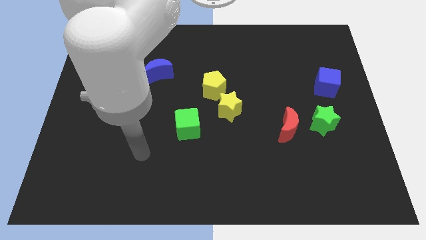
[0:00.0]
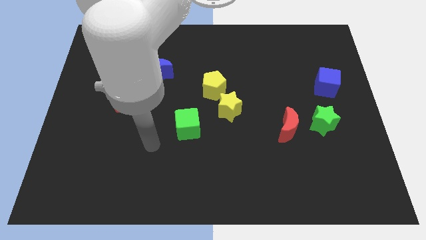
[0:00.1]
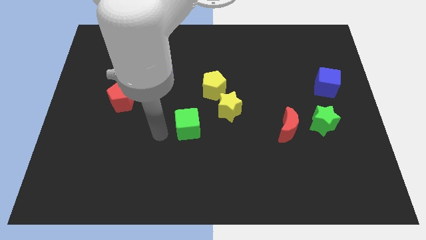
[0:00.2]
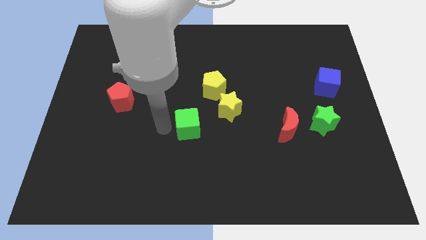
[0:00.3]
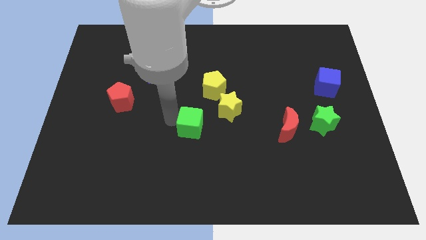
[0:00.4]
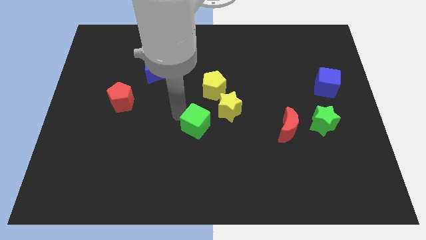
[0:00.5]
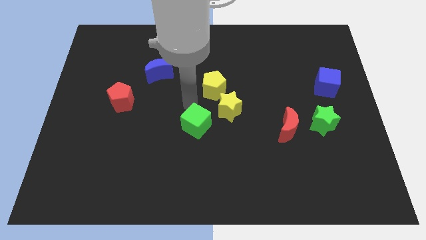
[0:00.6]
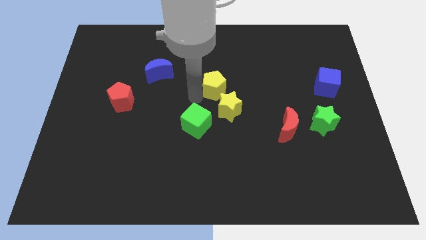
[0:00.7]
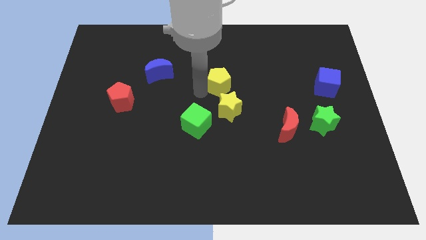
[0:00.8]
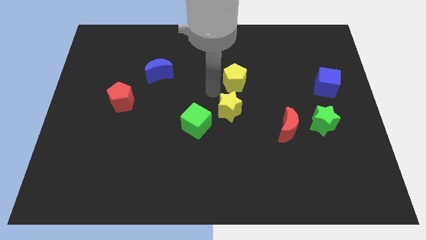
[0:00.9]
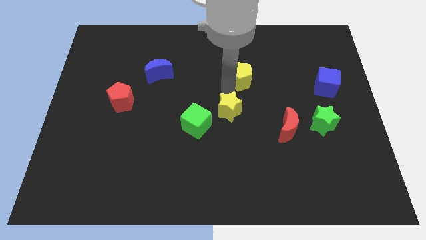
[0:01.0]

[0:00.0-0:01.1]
move the yellow star away from the yellow pentagon

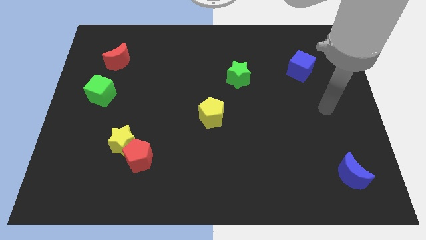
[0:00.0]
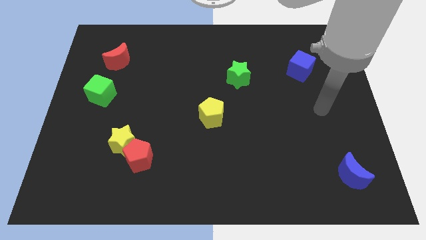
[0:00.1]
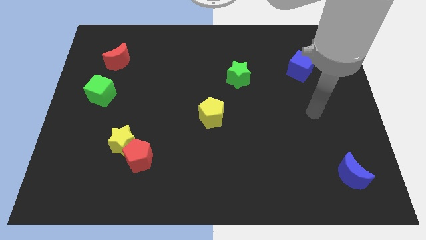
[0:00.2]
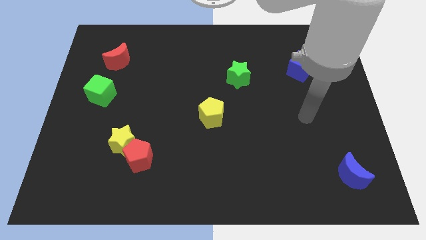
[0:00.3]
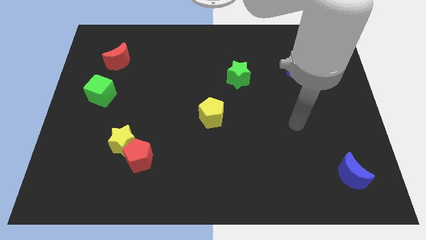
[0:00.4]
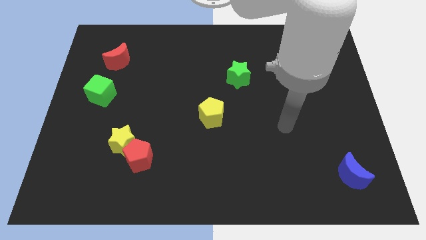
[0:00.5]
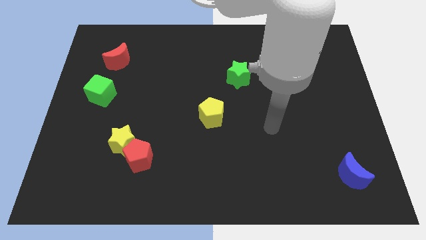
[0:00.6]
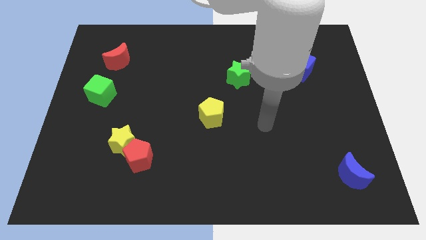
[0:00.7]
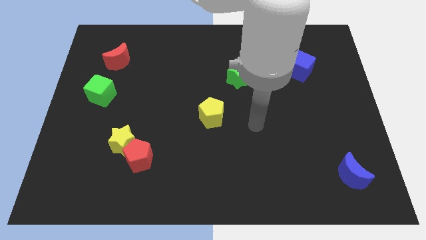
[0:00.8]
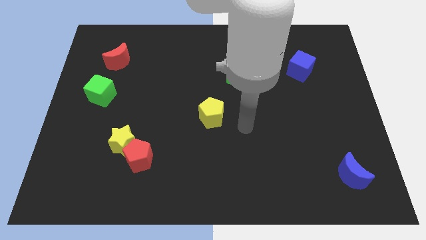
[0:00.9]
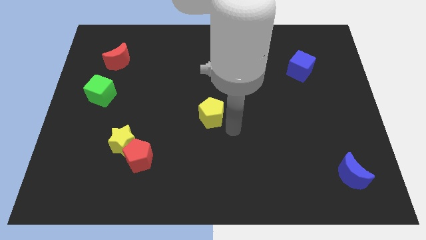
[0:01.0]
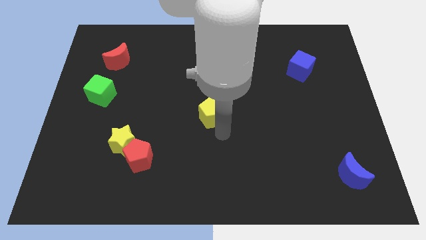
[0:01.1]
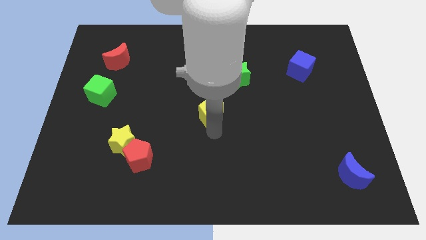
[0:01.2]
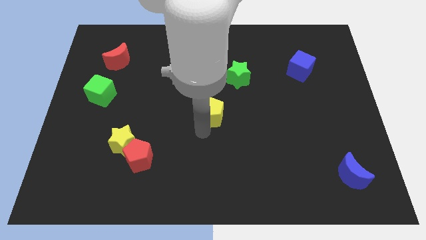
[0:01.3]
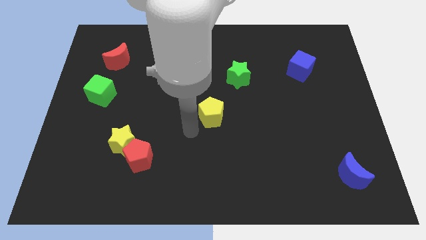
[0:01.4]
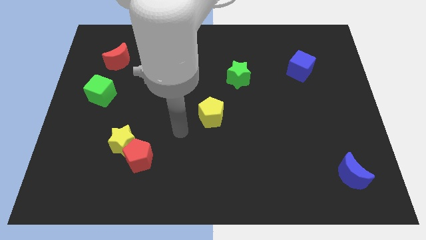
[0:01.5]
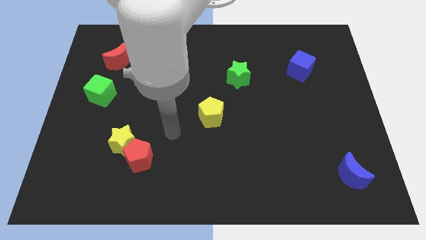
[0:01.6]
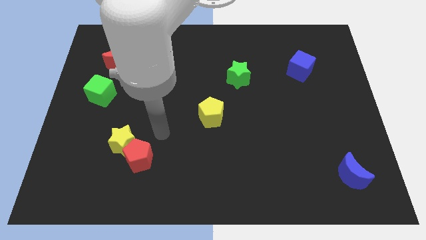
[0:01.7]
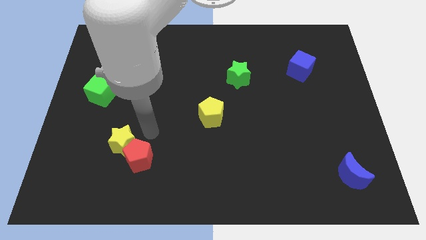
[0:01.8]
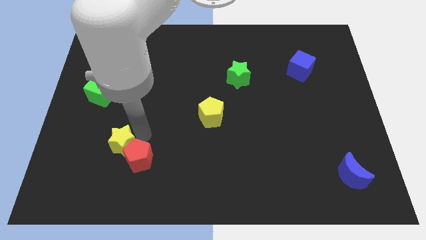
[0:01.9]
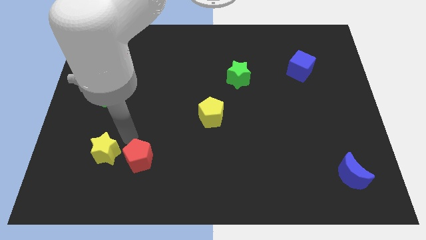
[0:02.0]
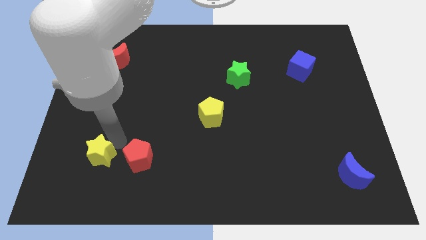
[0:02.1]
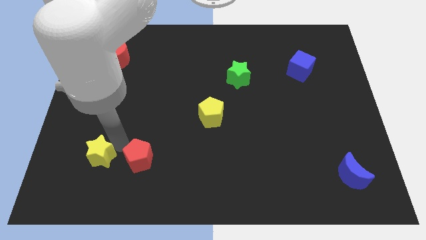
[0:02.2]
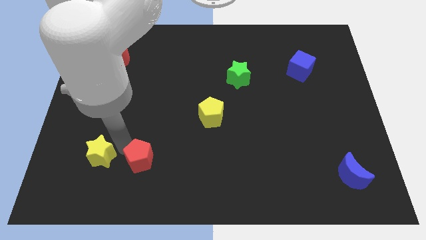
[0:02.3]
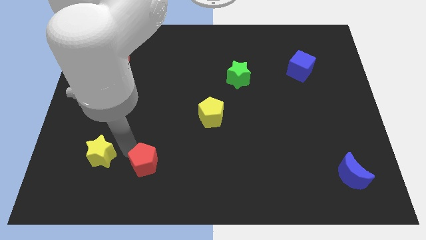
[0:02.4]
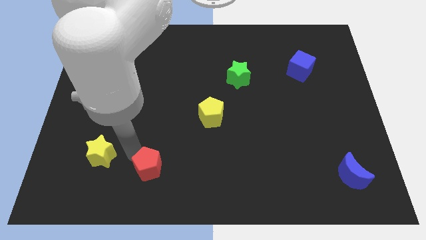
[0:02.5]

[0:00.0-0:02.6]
separate the red pentagon from the yellow star

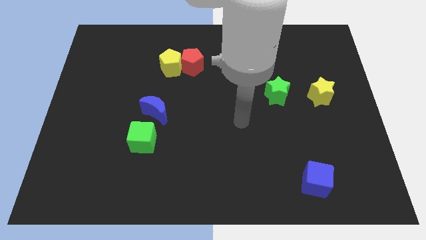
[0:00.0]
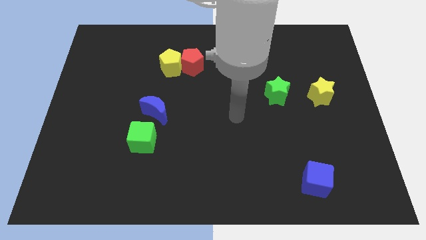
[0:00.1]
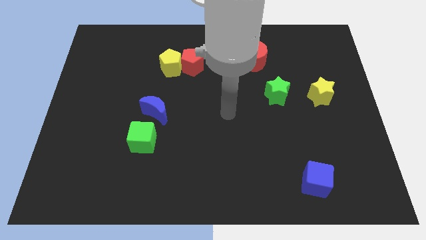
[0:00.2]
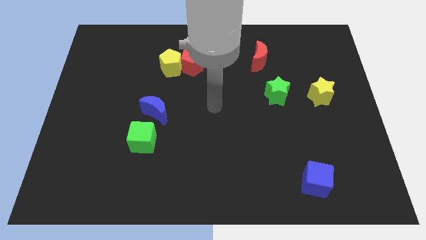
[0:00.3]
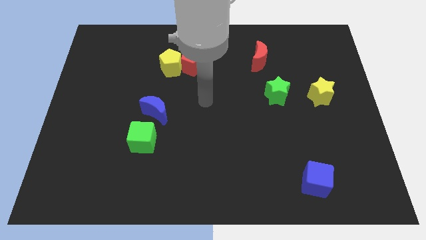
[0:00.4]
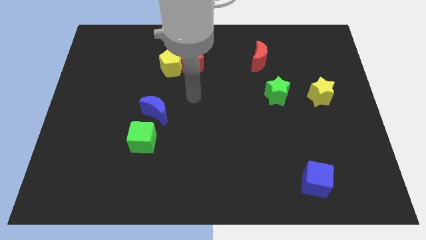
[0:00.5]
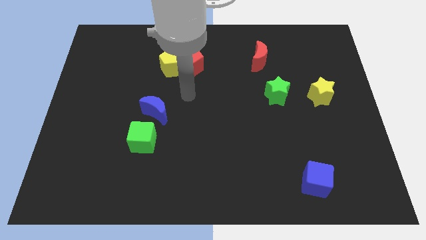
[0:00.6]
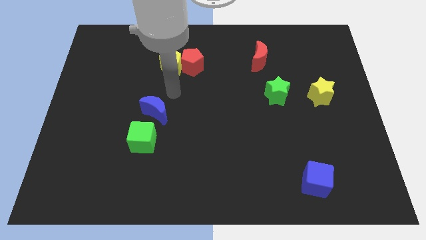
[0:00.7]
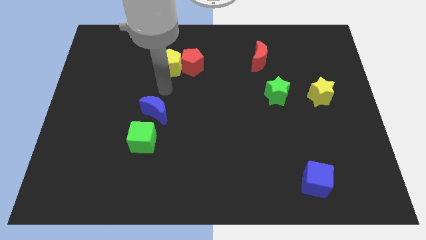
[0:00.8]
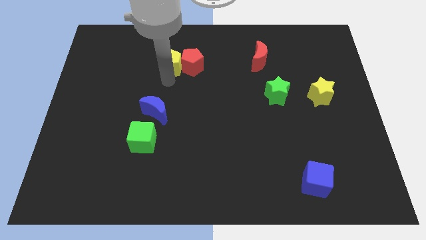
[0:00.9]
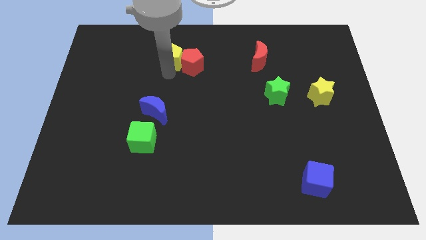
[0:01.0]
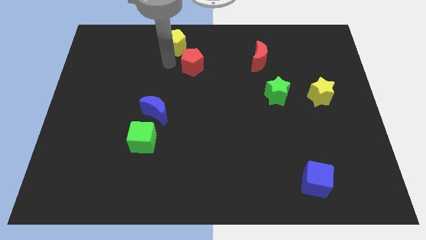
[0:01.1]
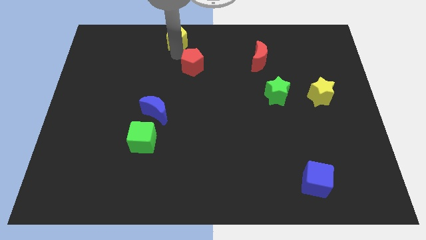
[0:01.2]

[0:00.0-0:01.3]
pull the red pentagon apart from the yellow pentagon

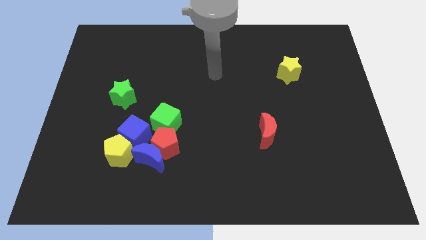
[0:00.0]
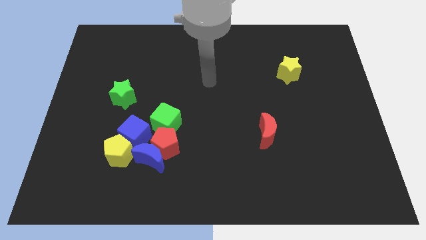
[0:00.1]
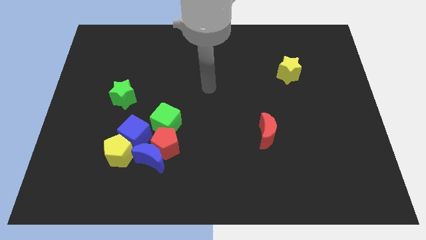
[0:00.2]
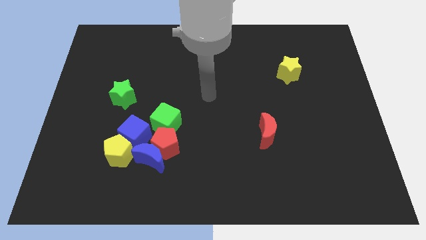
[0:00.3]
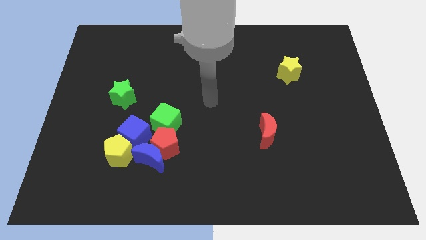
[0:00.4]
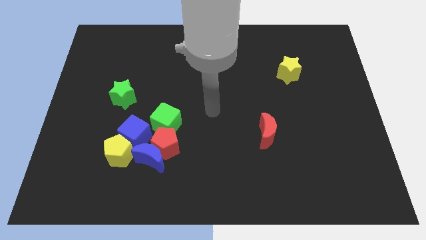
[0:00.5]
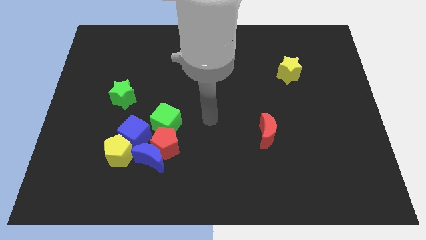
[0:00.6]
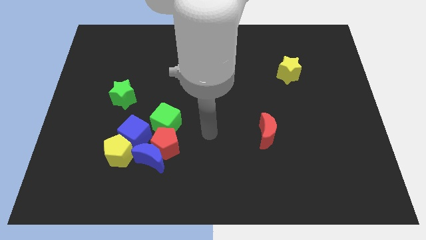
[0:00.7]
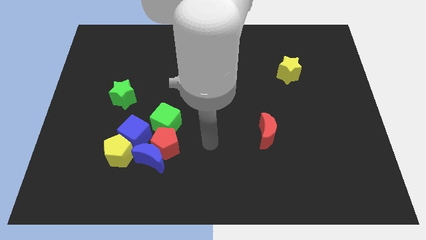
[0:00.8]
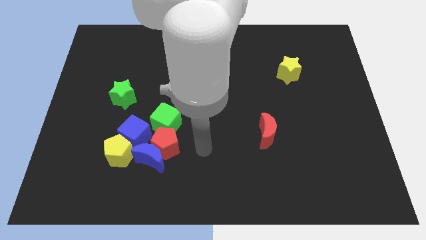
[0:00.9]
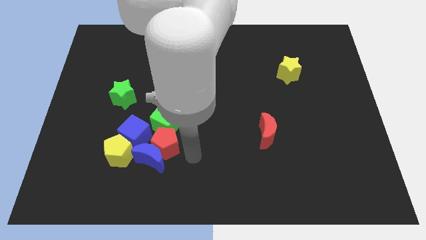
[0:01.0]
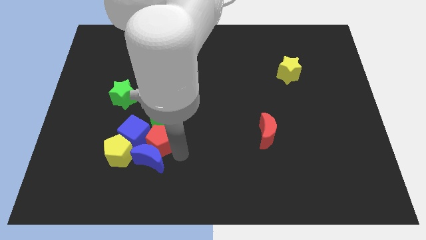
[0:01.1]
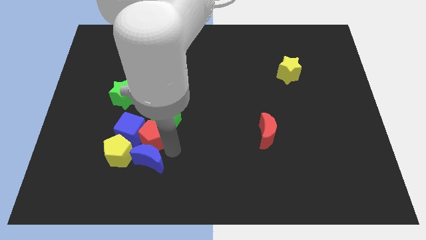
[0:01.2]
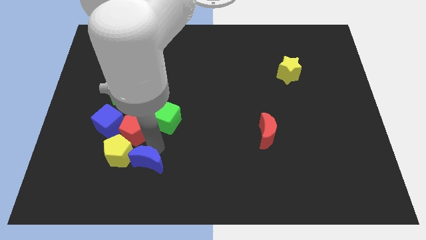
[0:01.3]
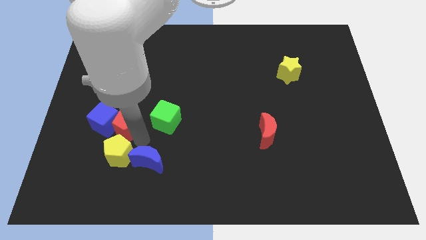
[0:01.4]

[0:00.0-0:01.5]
pull the blue cube apart from the group of blocks

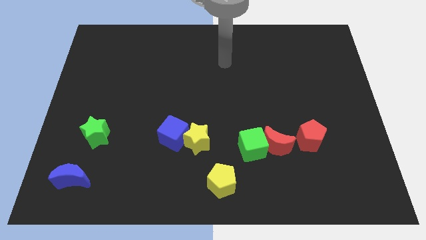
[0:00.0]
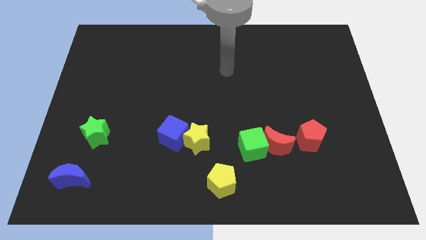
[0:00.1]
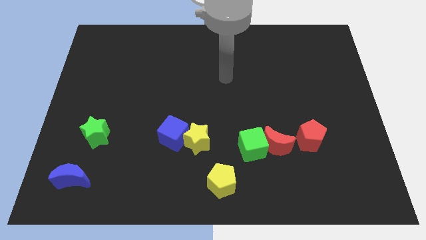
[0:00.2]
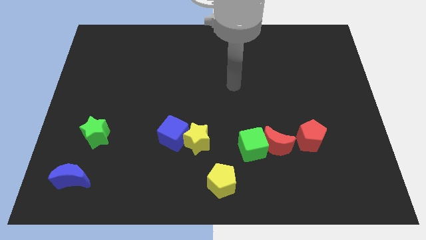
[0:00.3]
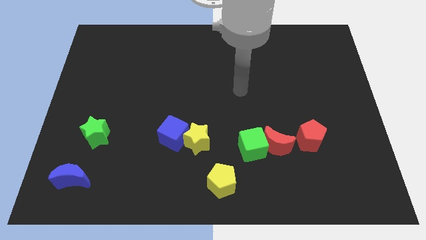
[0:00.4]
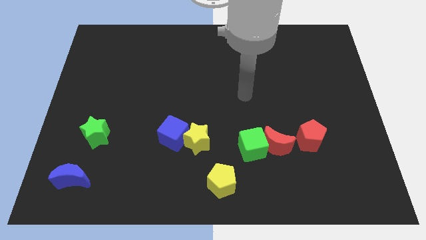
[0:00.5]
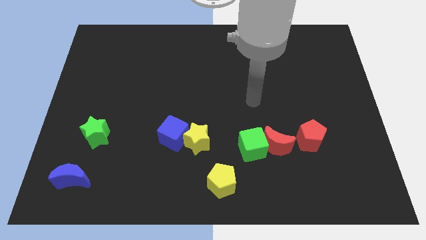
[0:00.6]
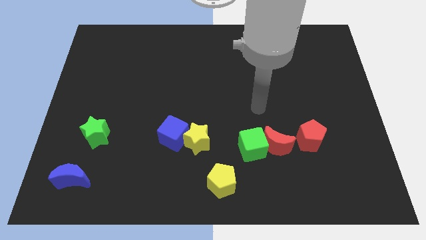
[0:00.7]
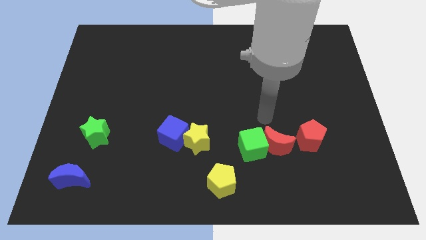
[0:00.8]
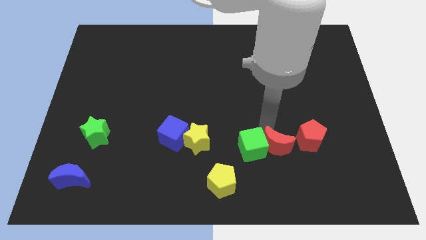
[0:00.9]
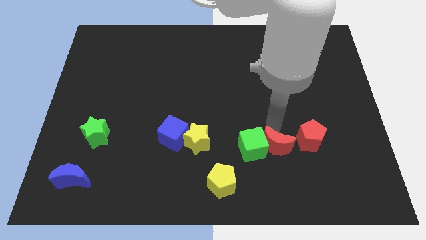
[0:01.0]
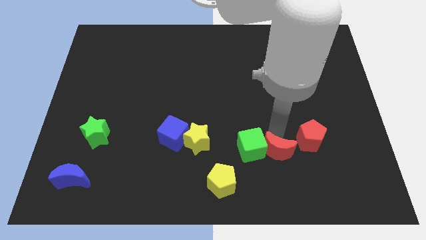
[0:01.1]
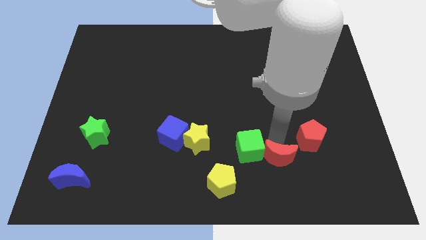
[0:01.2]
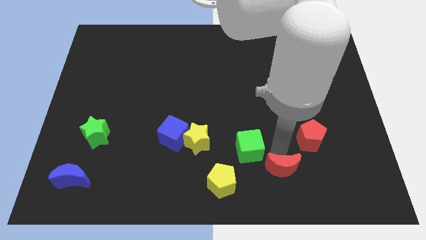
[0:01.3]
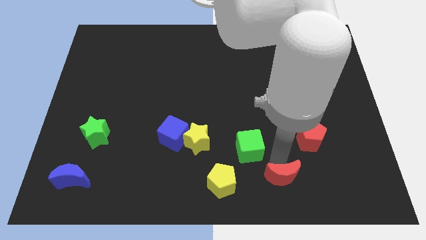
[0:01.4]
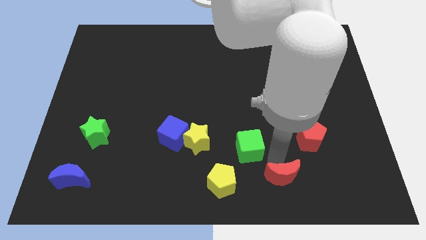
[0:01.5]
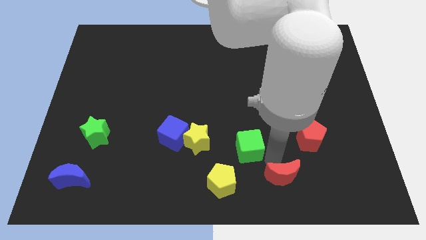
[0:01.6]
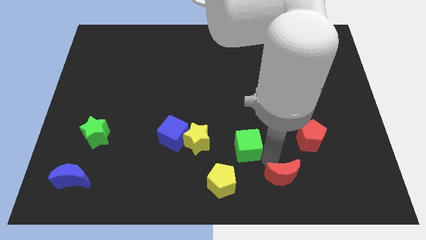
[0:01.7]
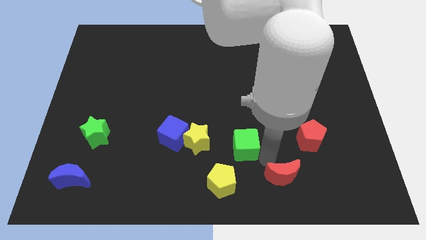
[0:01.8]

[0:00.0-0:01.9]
move the green cube away from the red moon

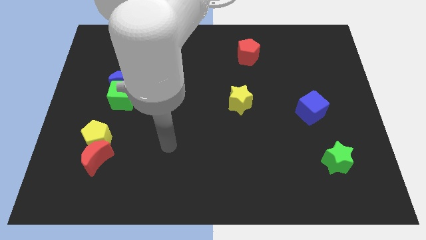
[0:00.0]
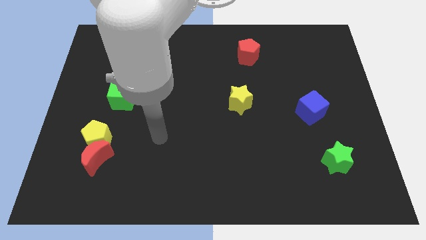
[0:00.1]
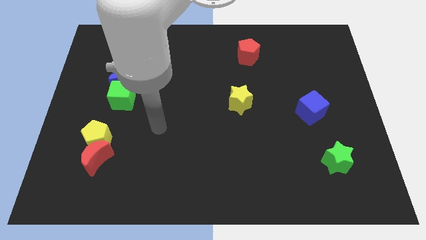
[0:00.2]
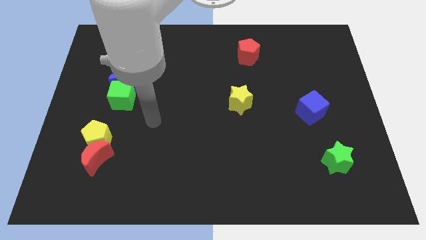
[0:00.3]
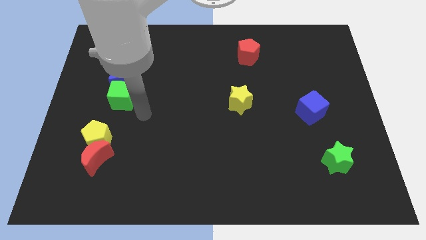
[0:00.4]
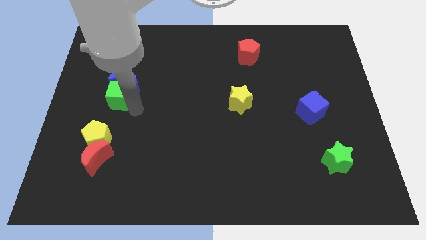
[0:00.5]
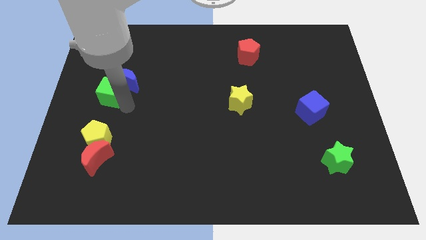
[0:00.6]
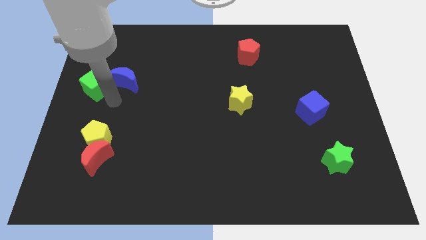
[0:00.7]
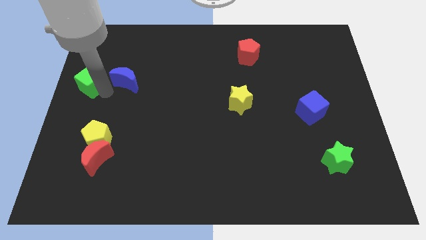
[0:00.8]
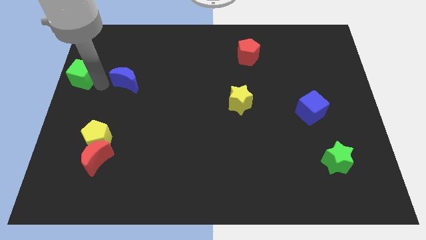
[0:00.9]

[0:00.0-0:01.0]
move the blue moon away from the green cube
